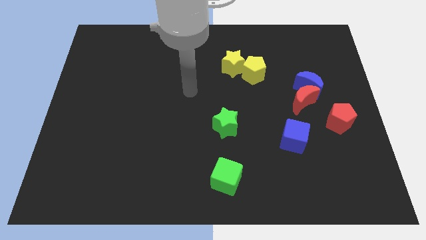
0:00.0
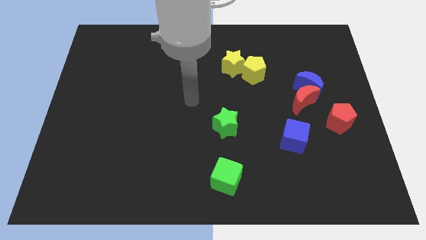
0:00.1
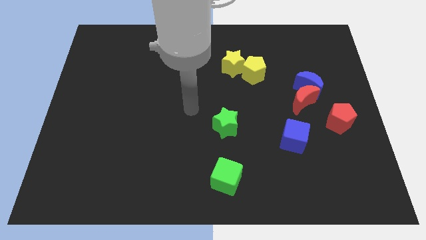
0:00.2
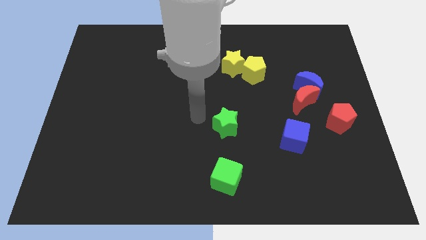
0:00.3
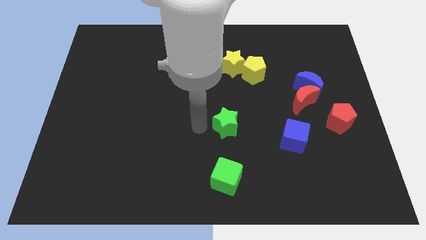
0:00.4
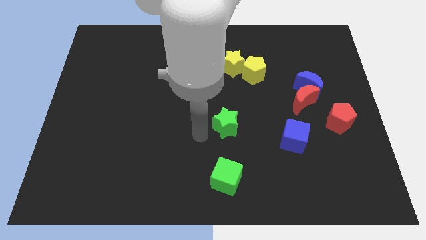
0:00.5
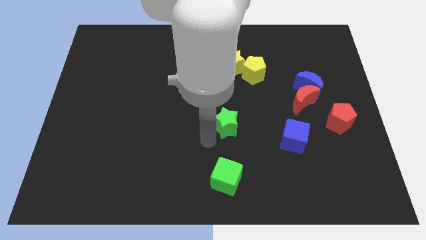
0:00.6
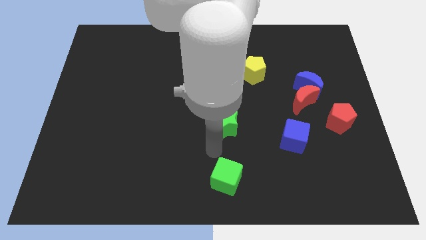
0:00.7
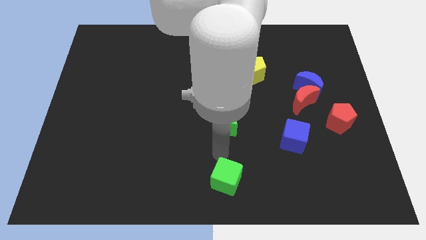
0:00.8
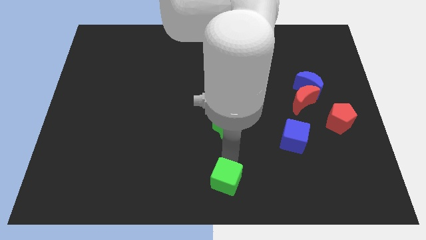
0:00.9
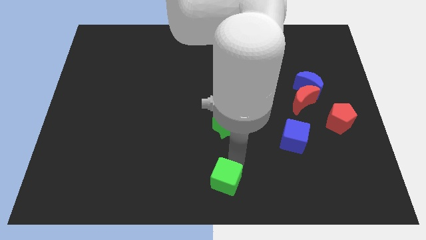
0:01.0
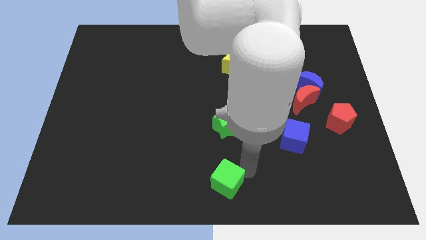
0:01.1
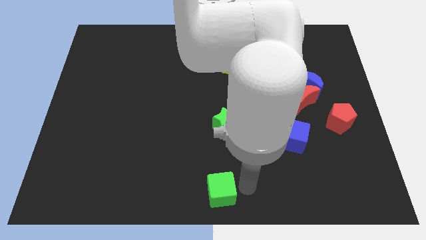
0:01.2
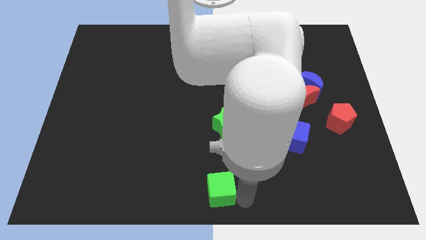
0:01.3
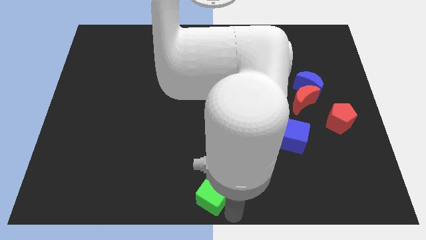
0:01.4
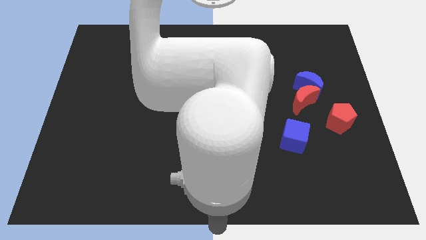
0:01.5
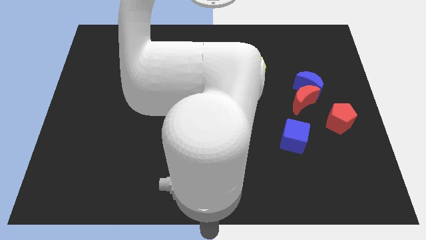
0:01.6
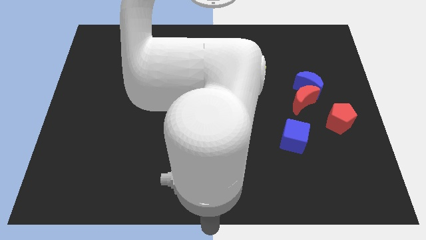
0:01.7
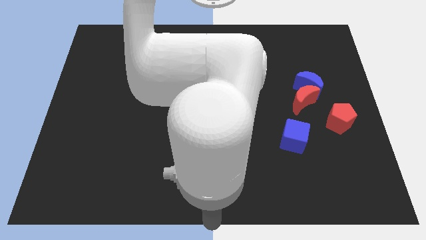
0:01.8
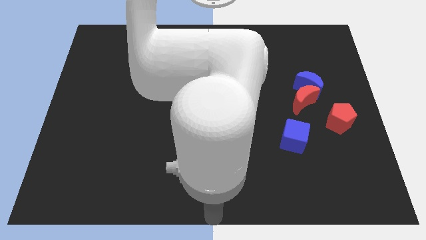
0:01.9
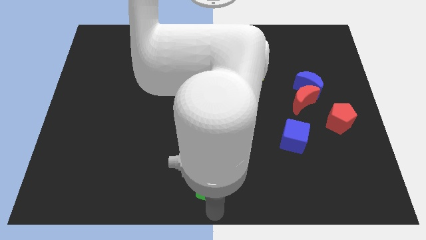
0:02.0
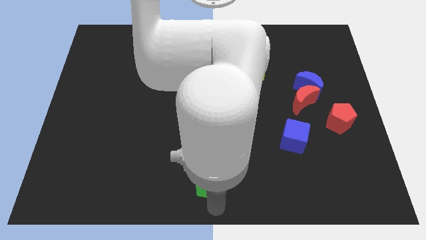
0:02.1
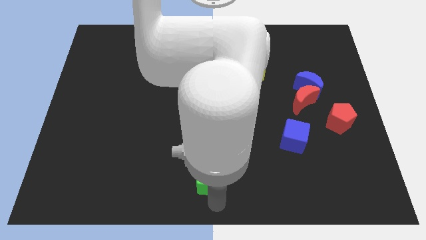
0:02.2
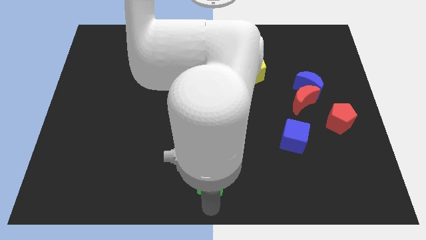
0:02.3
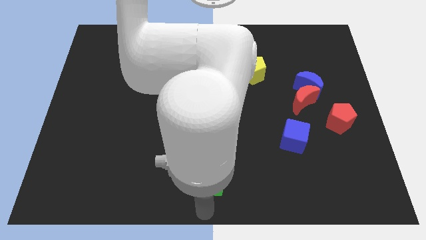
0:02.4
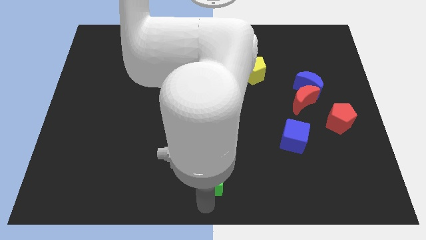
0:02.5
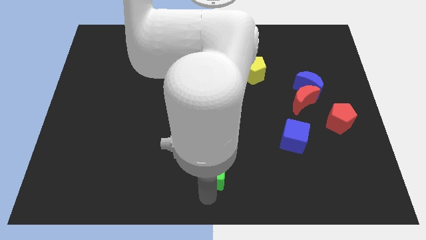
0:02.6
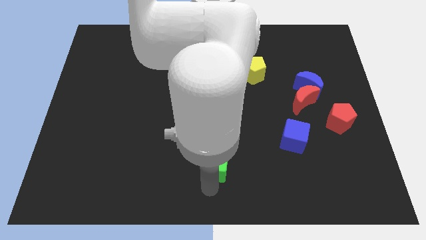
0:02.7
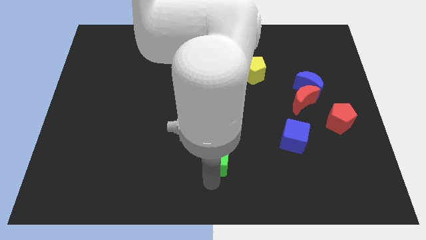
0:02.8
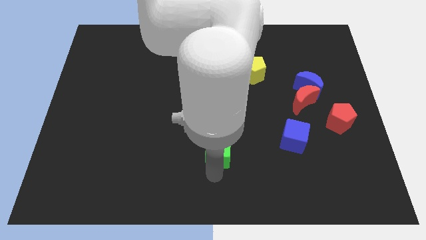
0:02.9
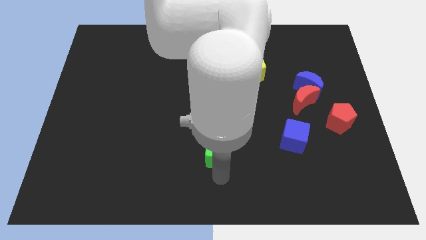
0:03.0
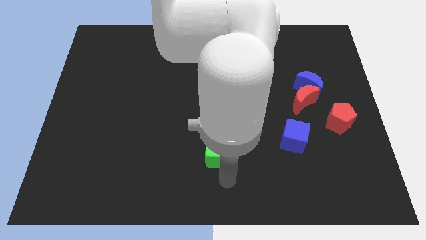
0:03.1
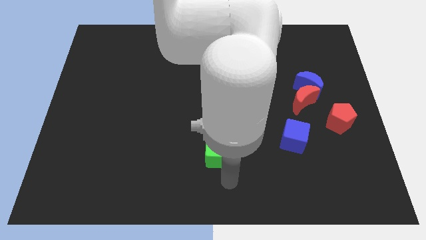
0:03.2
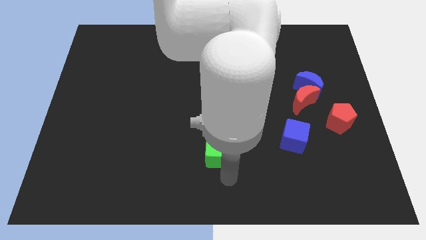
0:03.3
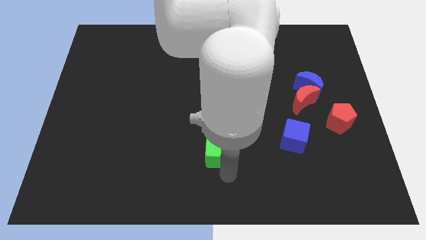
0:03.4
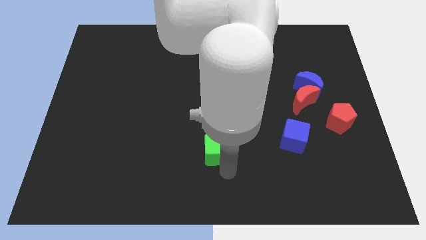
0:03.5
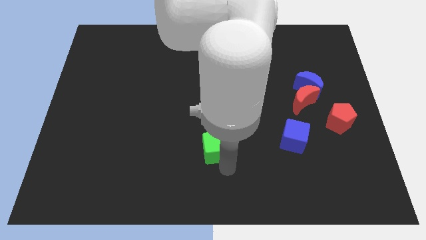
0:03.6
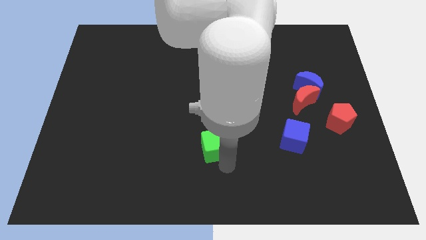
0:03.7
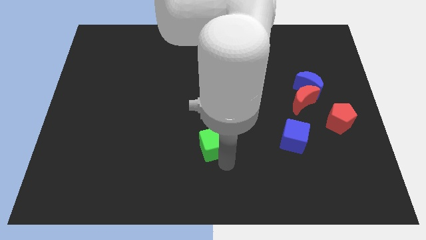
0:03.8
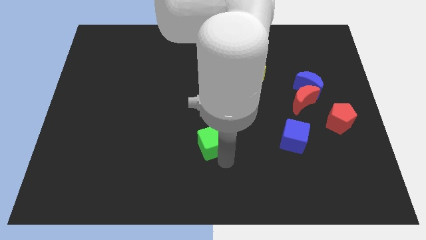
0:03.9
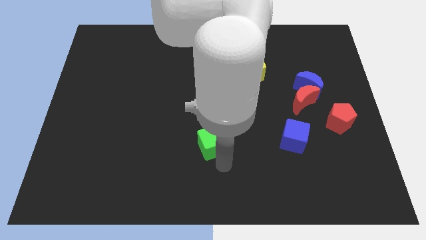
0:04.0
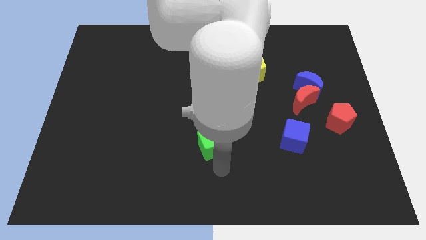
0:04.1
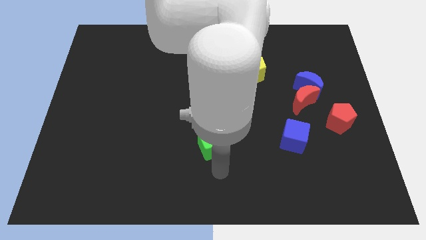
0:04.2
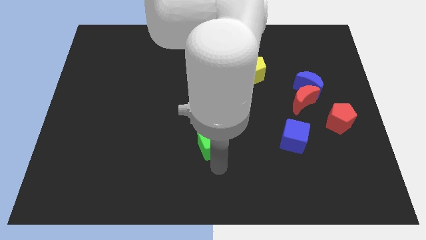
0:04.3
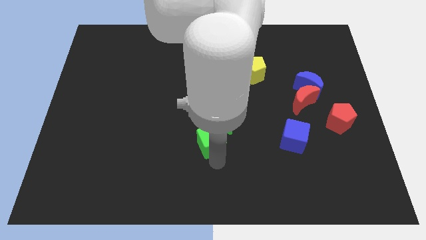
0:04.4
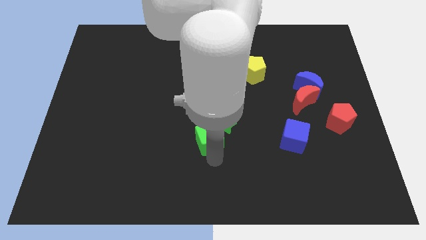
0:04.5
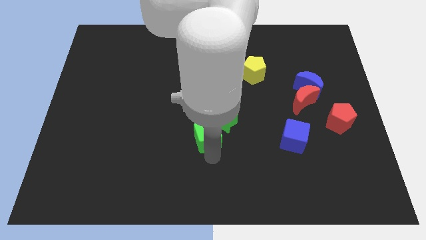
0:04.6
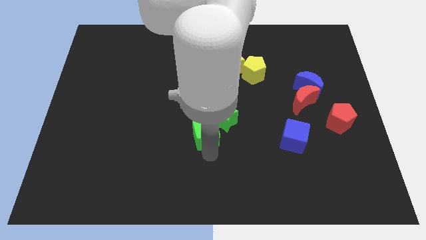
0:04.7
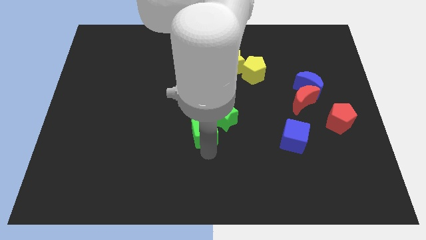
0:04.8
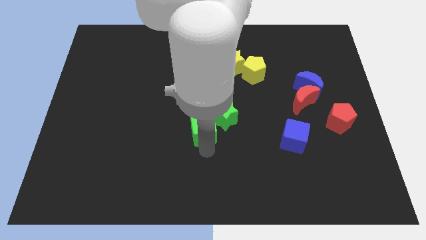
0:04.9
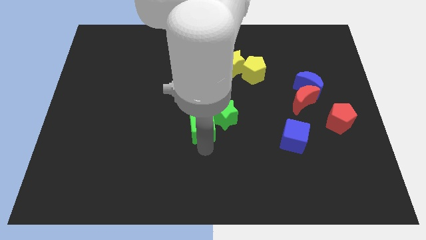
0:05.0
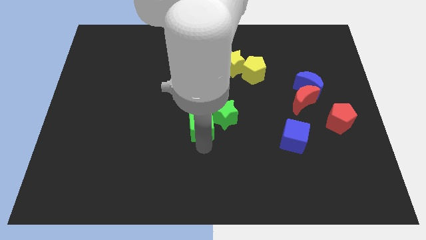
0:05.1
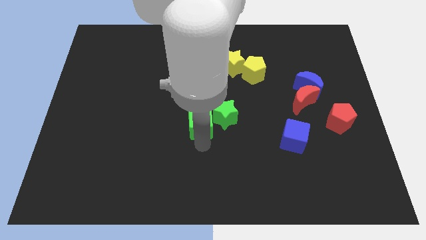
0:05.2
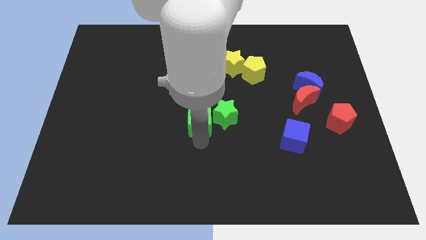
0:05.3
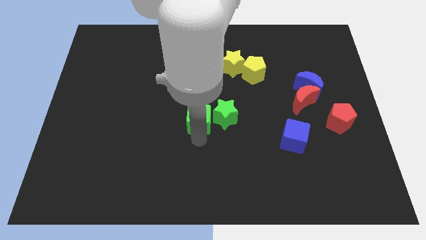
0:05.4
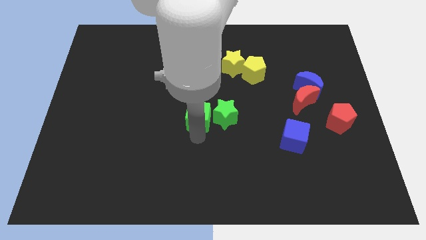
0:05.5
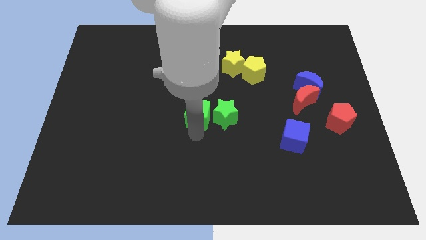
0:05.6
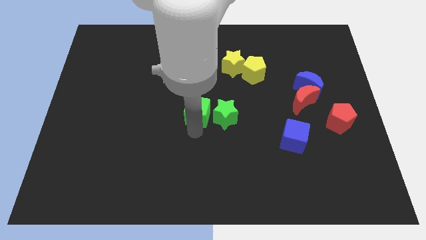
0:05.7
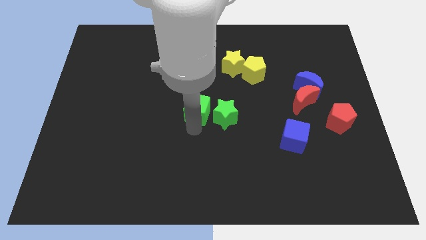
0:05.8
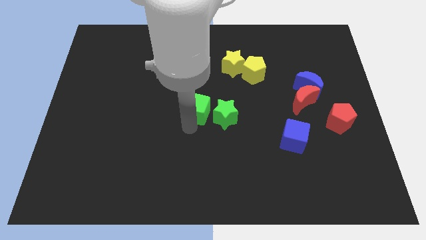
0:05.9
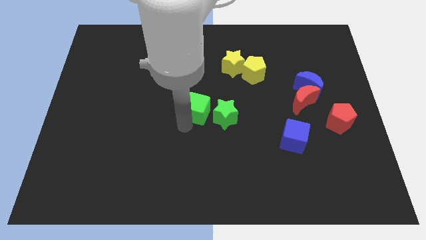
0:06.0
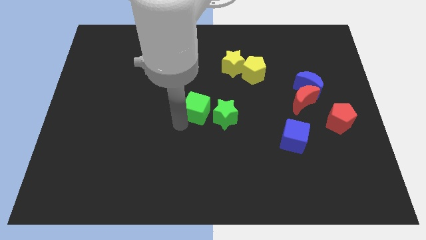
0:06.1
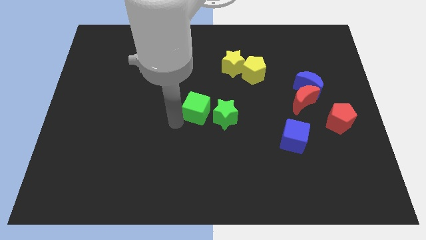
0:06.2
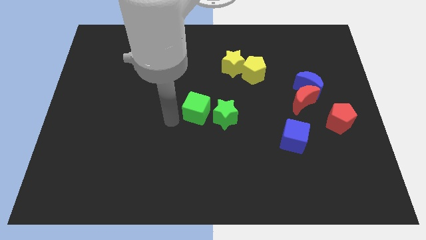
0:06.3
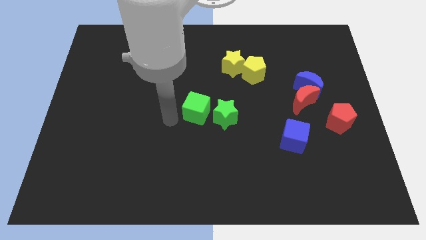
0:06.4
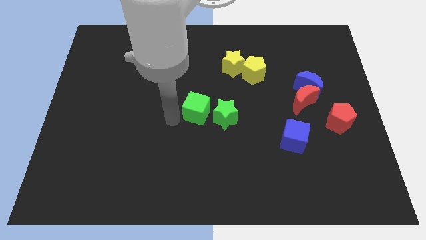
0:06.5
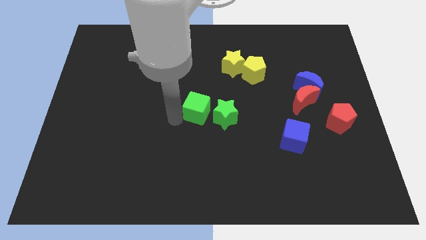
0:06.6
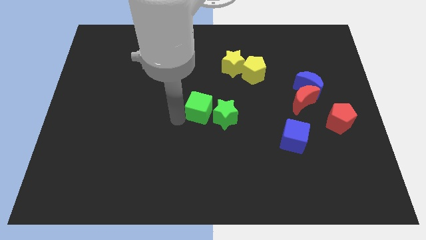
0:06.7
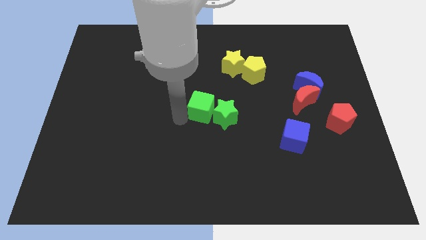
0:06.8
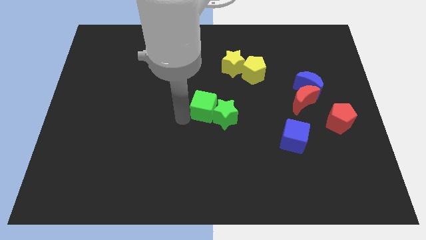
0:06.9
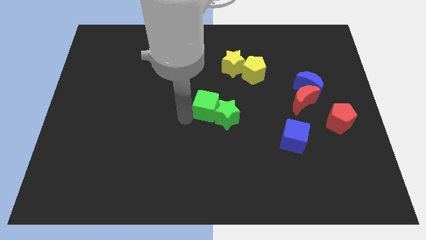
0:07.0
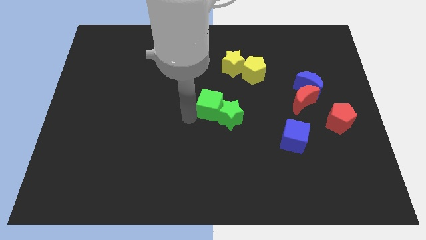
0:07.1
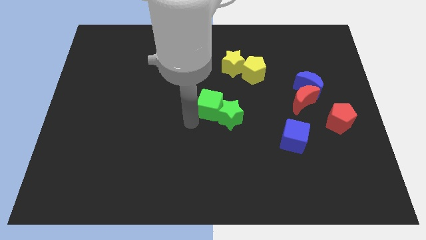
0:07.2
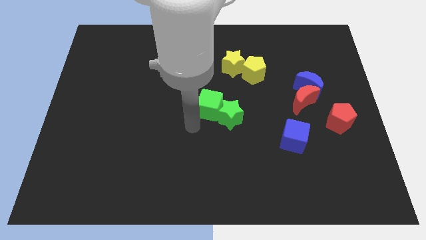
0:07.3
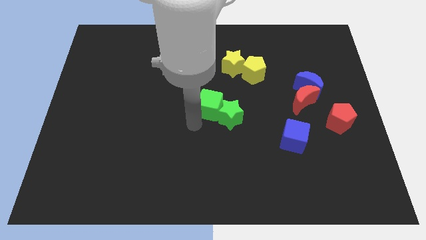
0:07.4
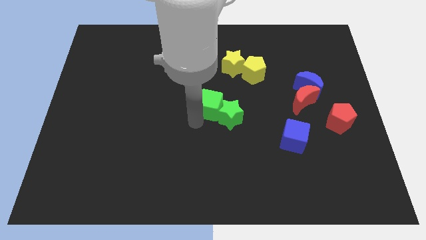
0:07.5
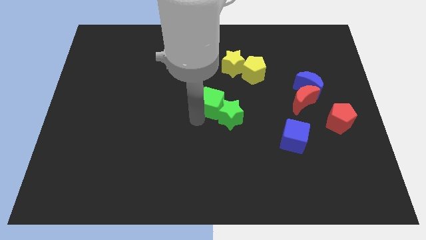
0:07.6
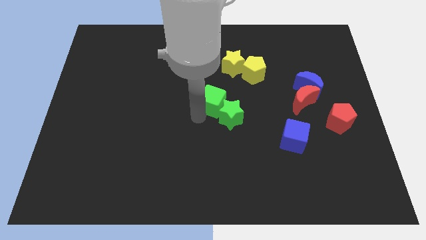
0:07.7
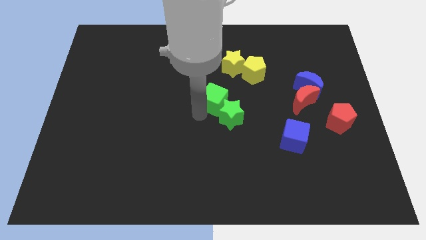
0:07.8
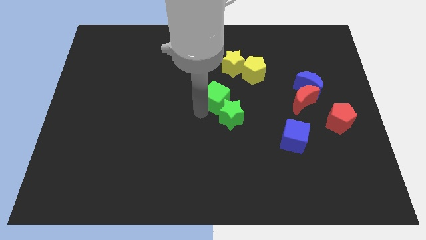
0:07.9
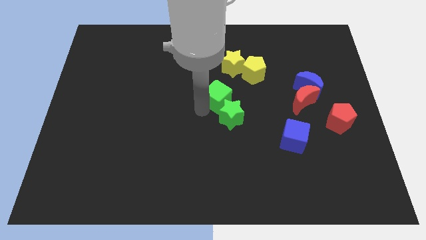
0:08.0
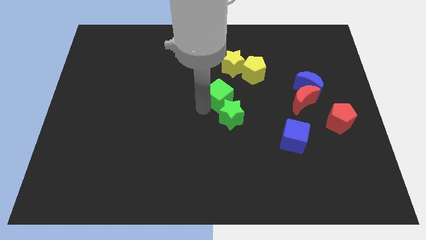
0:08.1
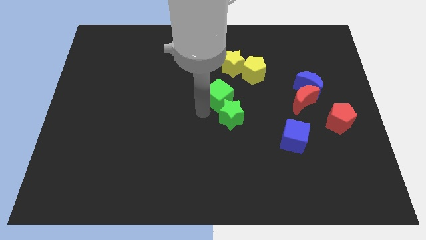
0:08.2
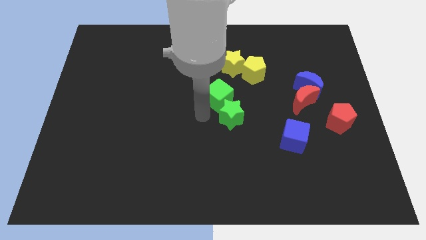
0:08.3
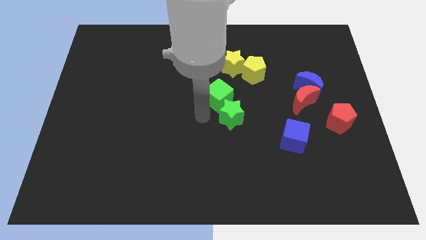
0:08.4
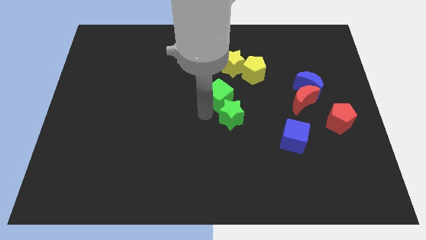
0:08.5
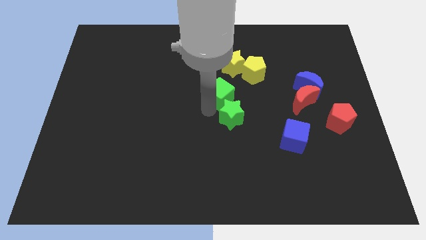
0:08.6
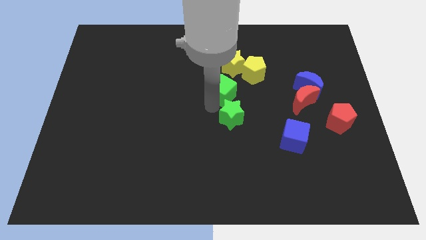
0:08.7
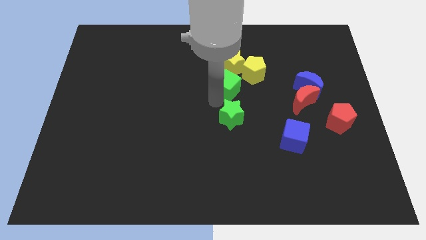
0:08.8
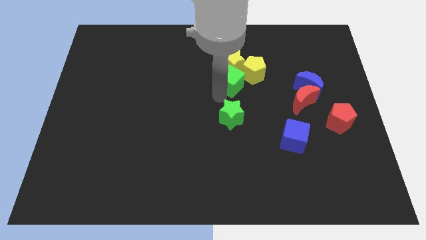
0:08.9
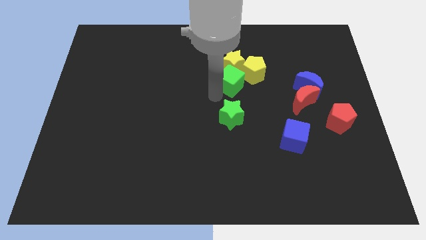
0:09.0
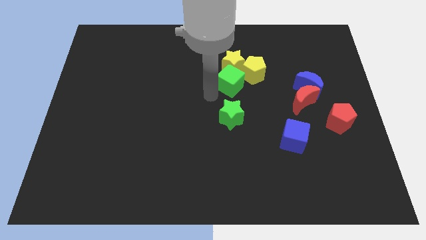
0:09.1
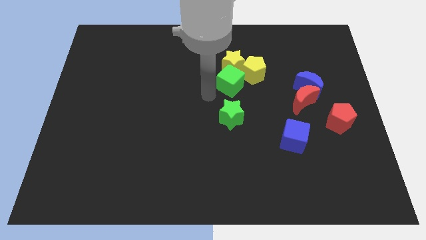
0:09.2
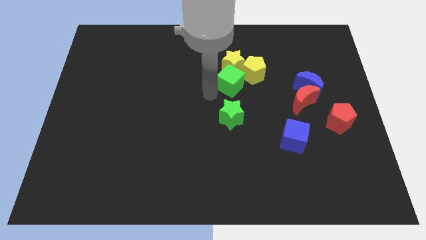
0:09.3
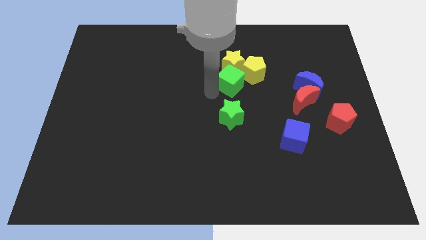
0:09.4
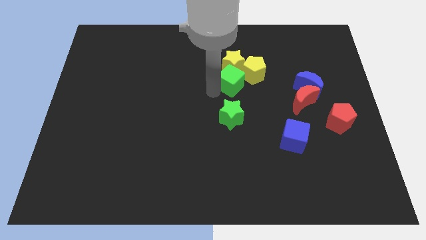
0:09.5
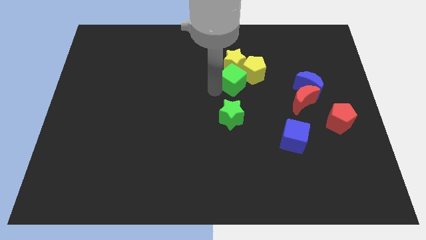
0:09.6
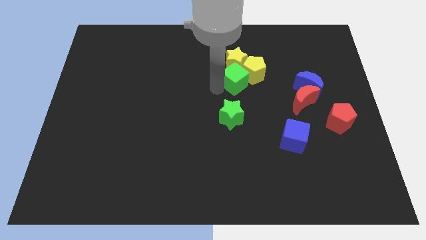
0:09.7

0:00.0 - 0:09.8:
push the green cube towards the yellow pentagon
